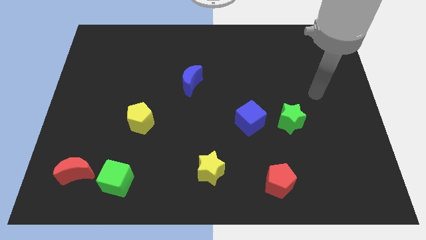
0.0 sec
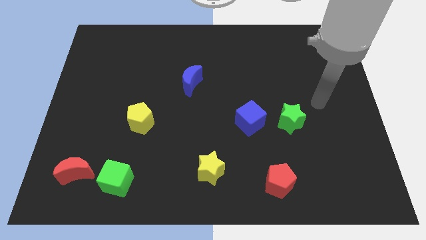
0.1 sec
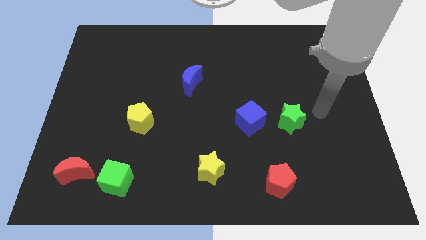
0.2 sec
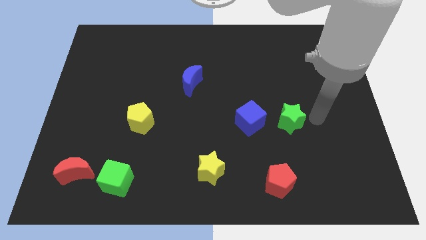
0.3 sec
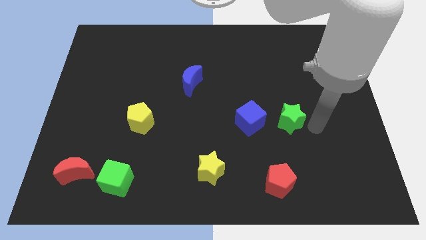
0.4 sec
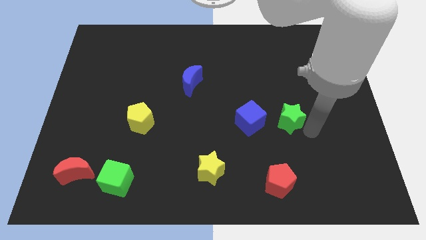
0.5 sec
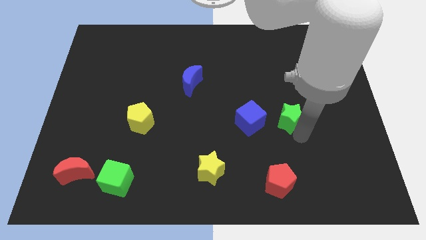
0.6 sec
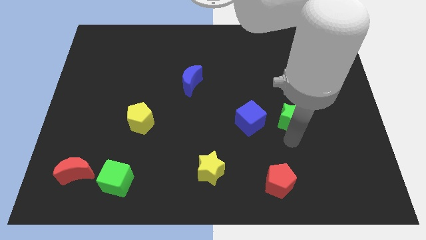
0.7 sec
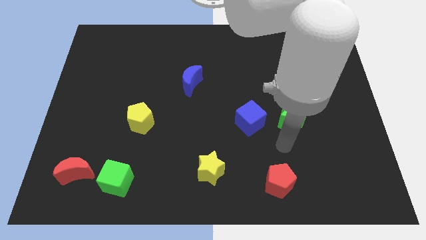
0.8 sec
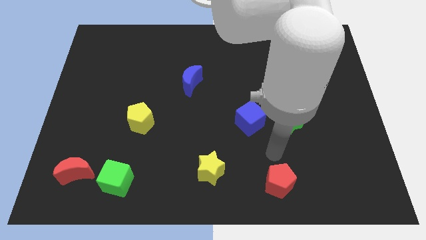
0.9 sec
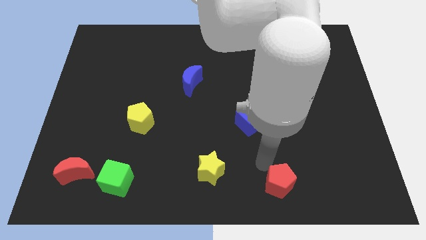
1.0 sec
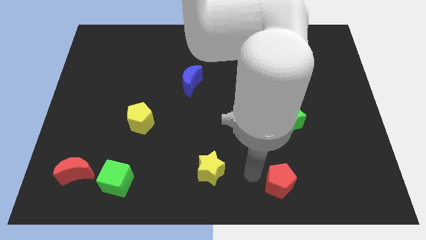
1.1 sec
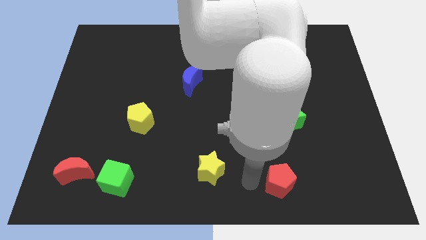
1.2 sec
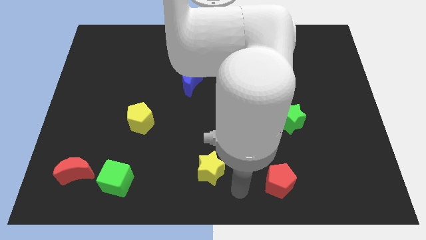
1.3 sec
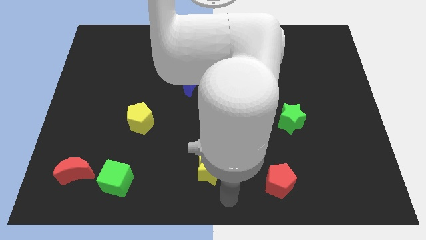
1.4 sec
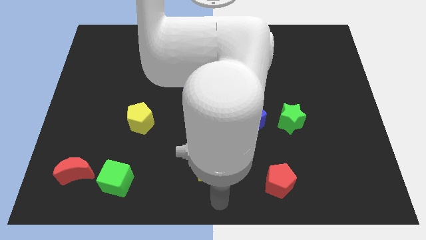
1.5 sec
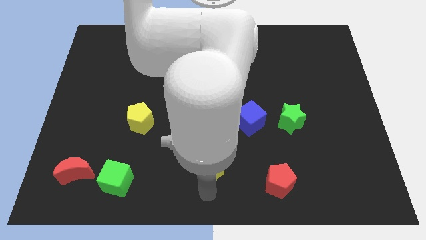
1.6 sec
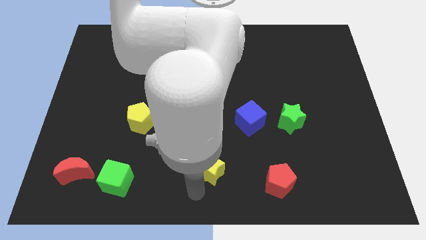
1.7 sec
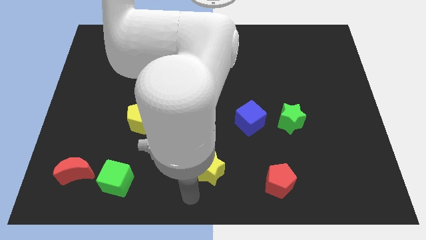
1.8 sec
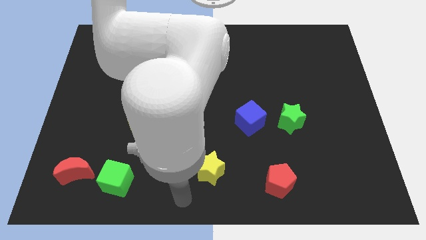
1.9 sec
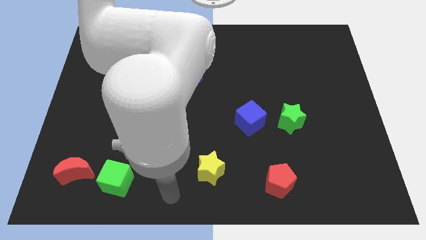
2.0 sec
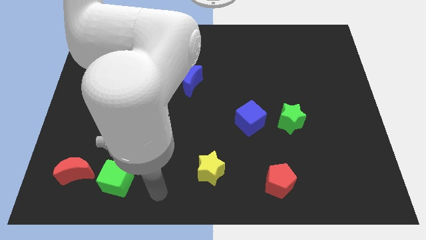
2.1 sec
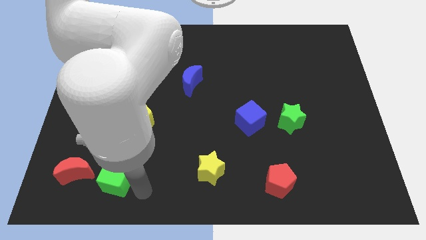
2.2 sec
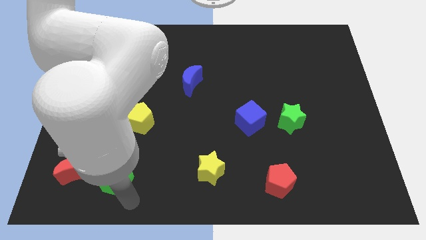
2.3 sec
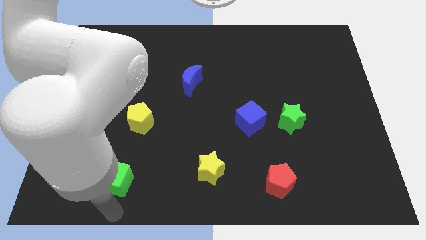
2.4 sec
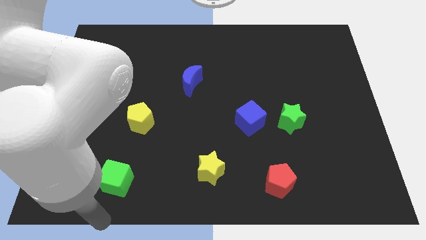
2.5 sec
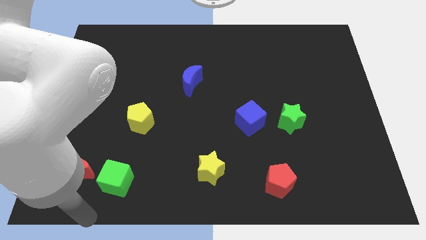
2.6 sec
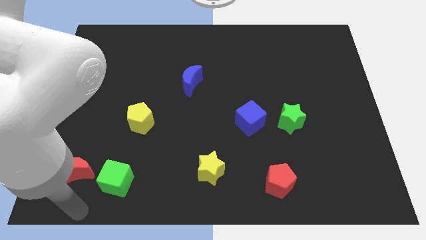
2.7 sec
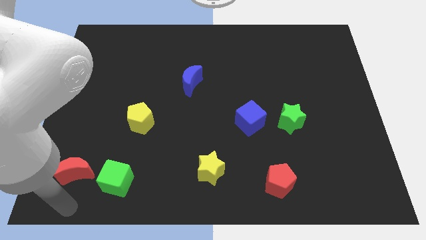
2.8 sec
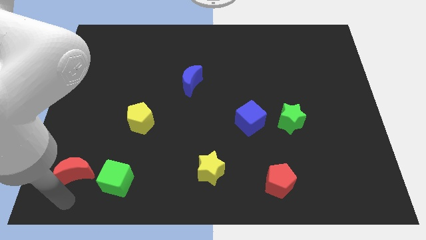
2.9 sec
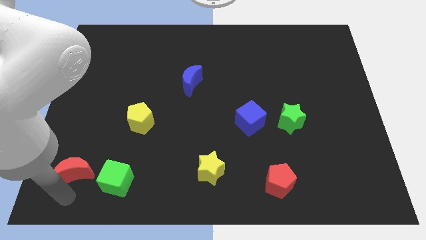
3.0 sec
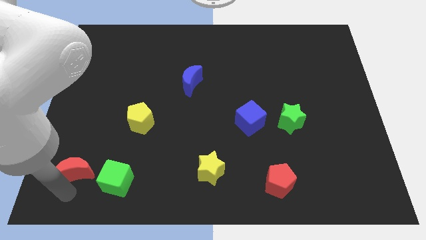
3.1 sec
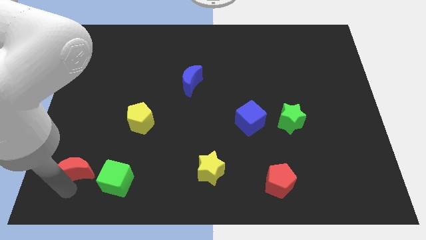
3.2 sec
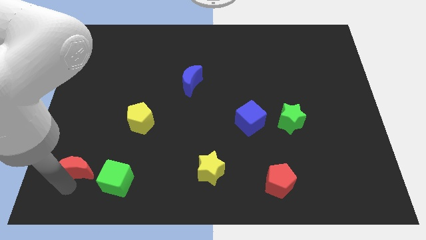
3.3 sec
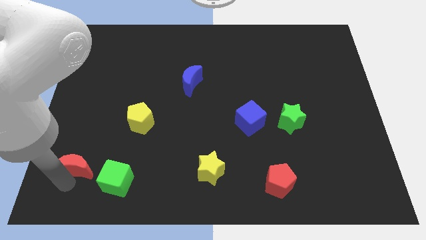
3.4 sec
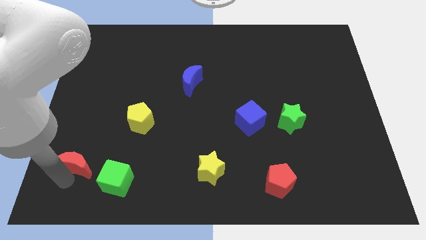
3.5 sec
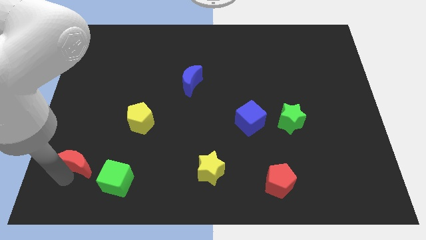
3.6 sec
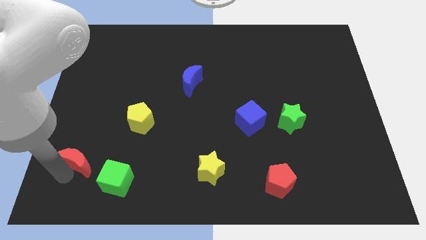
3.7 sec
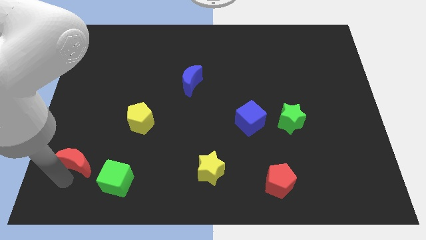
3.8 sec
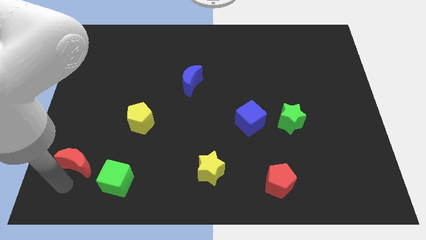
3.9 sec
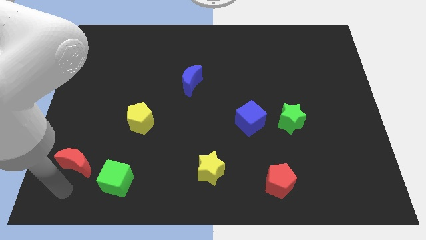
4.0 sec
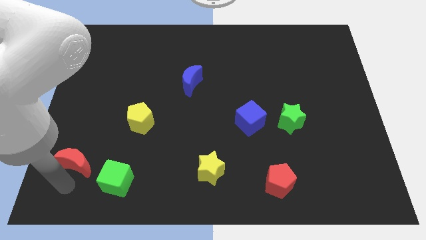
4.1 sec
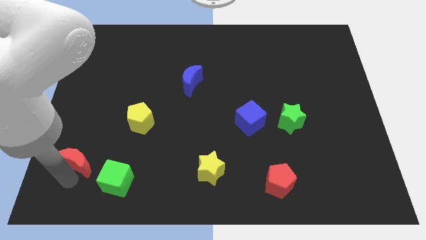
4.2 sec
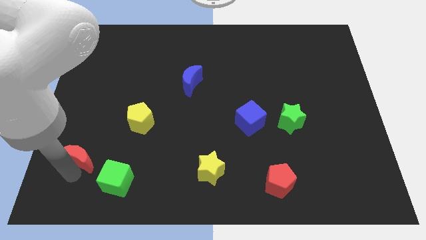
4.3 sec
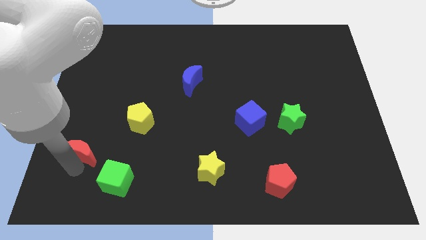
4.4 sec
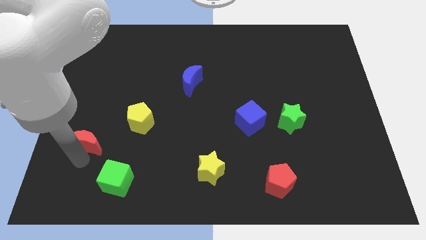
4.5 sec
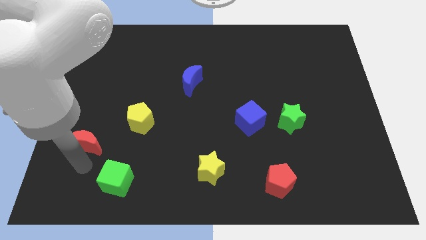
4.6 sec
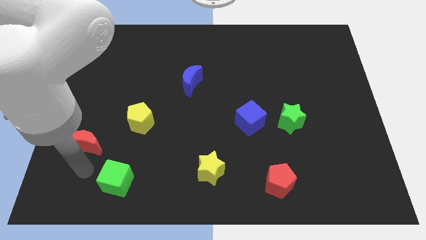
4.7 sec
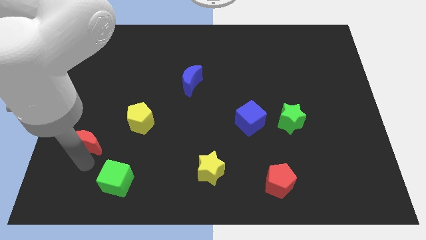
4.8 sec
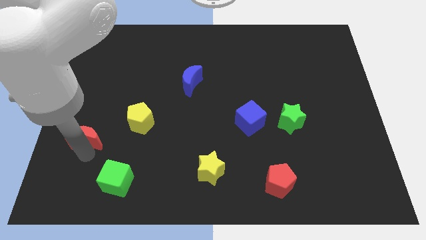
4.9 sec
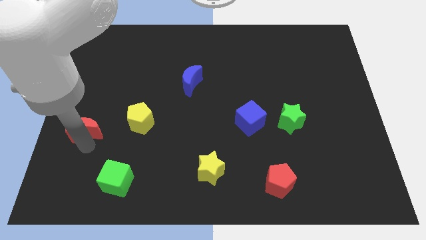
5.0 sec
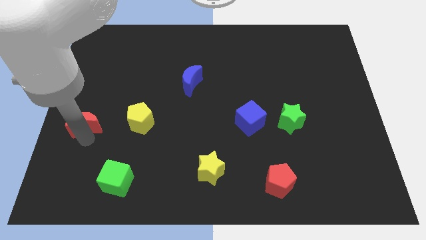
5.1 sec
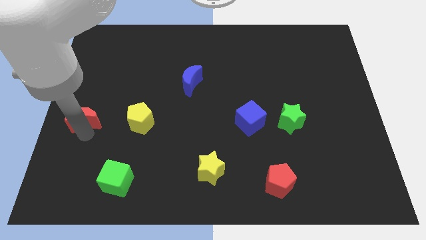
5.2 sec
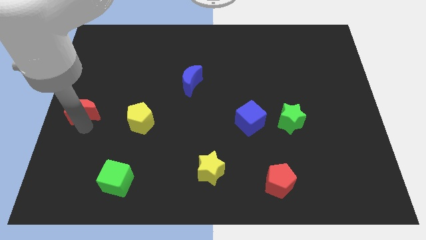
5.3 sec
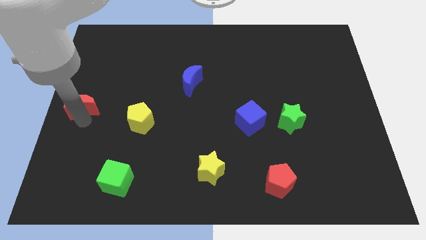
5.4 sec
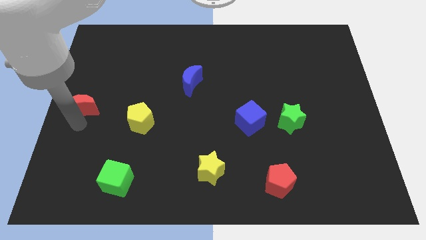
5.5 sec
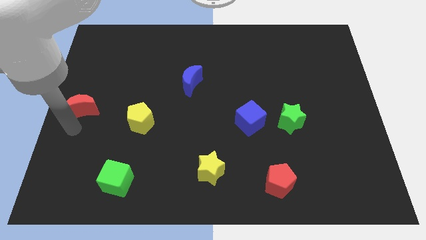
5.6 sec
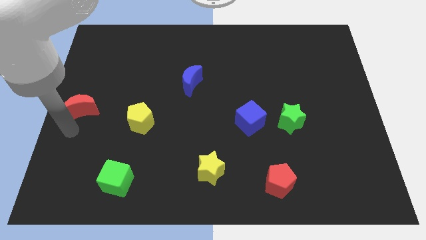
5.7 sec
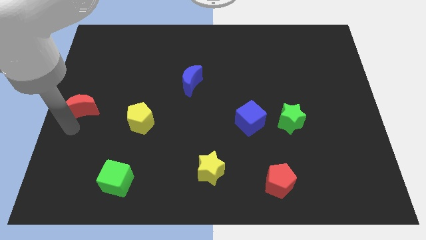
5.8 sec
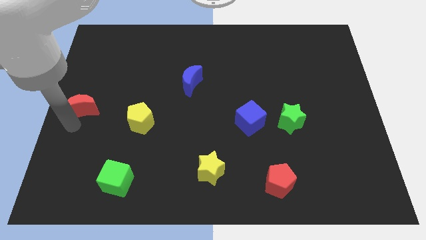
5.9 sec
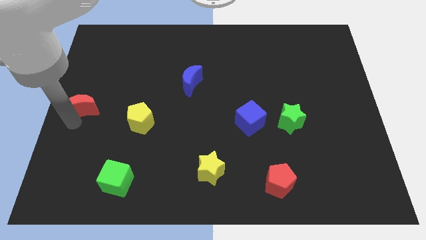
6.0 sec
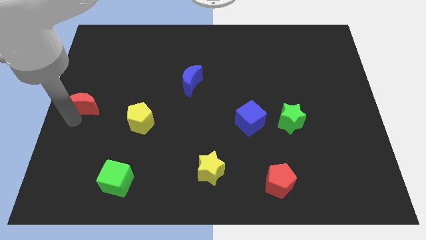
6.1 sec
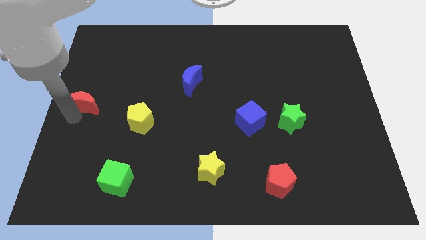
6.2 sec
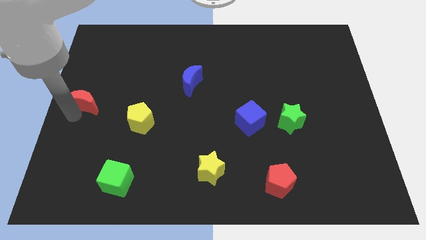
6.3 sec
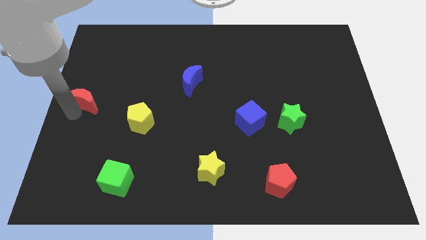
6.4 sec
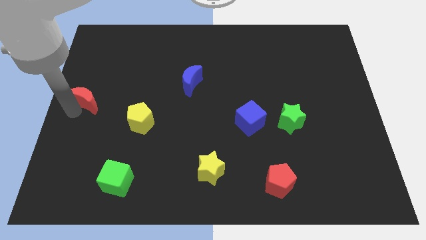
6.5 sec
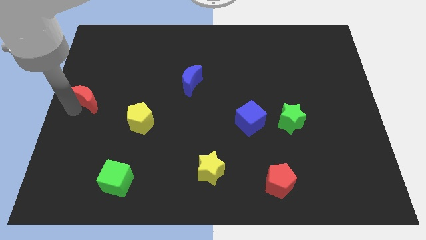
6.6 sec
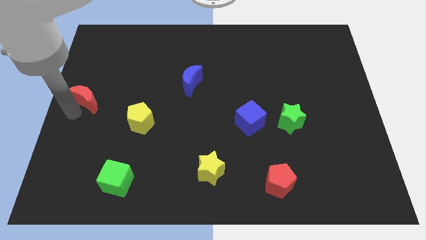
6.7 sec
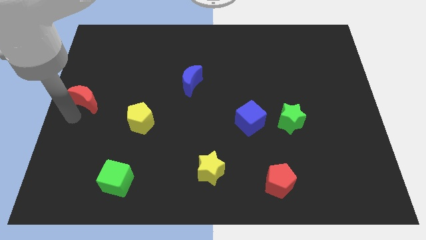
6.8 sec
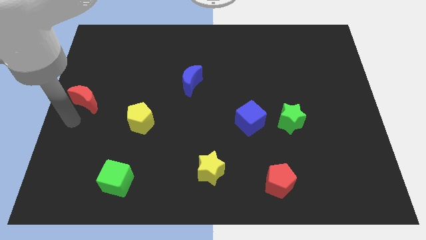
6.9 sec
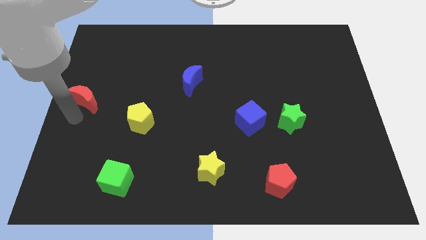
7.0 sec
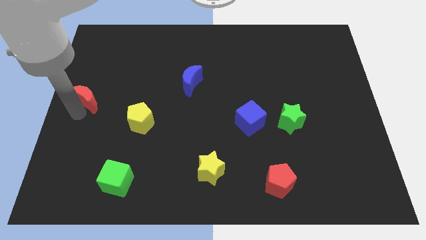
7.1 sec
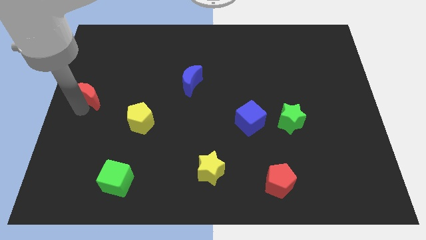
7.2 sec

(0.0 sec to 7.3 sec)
slide the red moon up

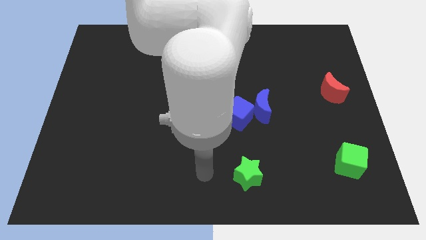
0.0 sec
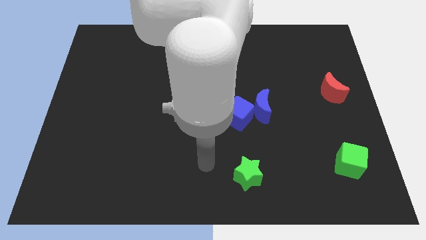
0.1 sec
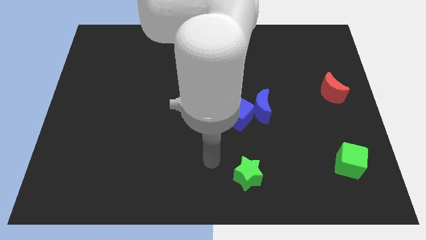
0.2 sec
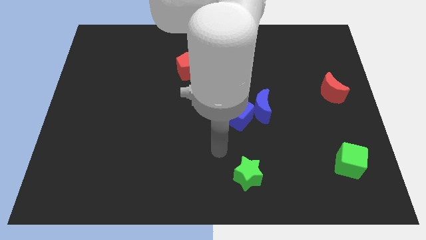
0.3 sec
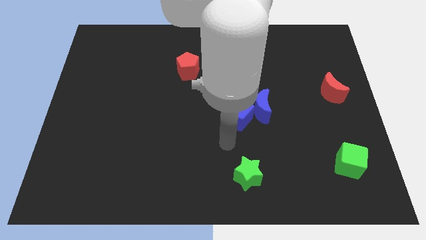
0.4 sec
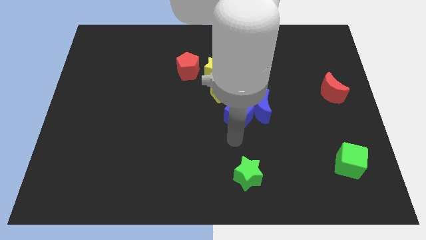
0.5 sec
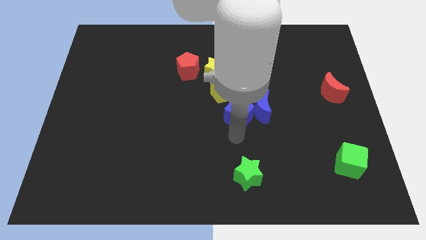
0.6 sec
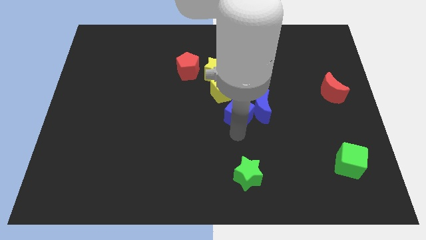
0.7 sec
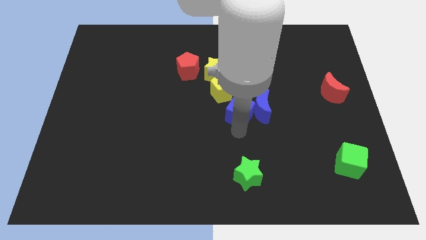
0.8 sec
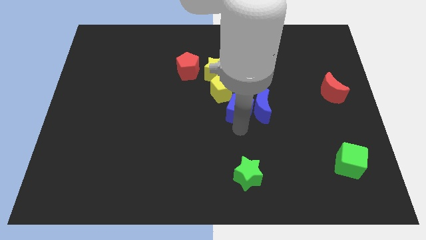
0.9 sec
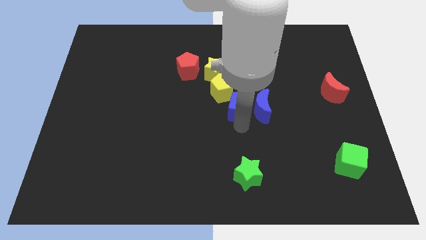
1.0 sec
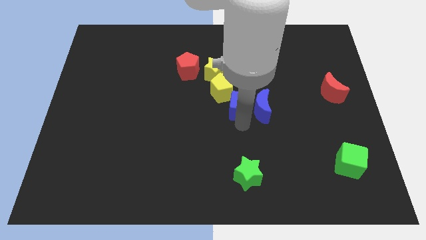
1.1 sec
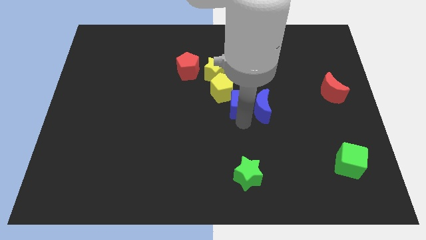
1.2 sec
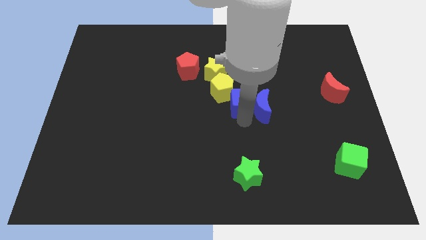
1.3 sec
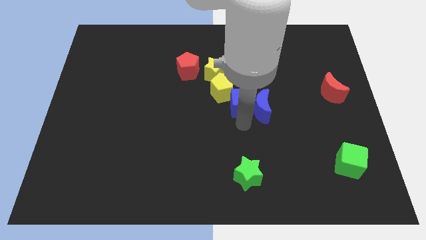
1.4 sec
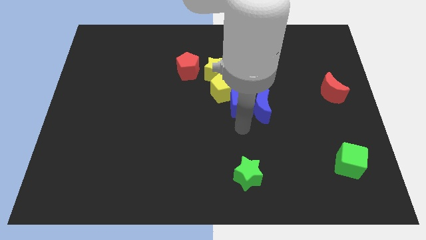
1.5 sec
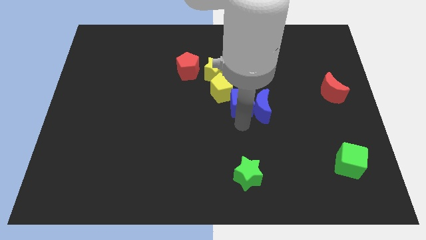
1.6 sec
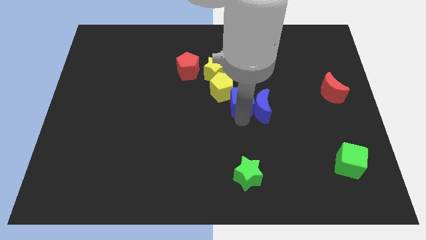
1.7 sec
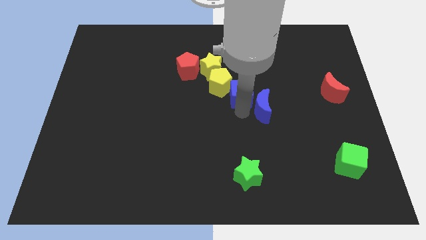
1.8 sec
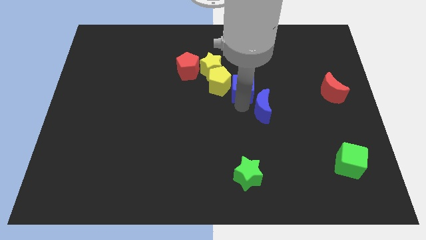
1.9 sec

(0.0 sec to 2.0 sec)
push the blue cube a little bit upwards
